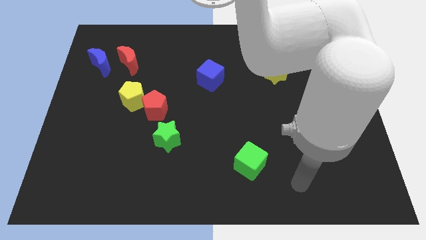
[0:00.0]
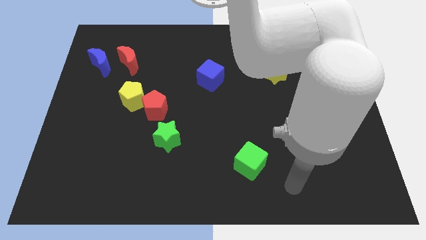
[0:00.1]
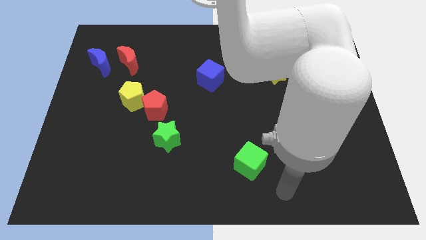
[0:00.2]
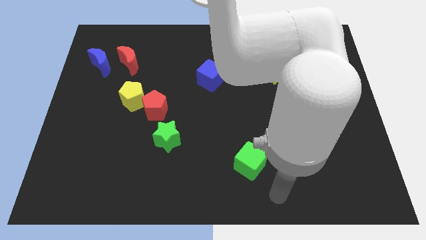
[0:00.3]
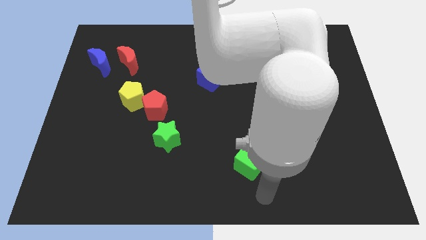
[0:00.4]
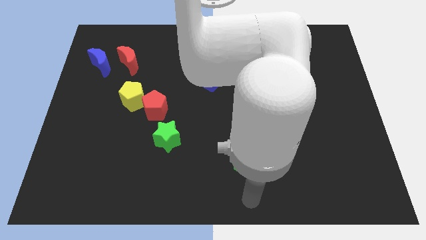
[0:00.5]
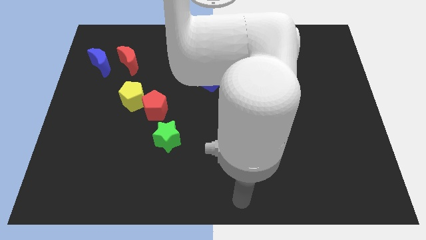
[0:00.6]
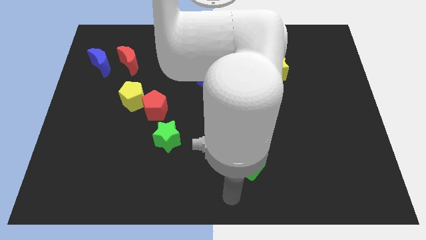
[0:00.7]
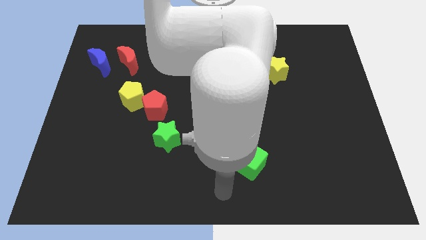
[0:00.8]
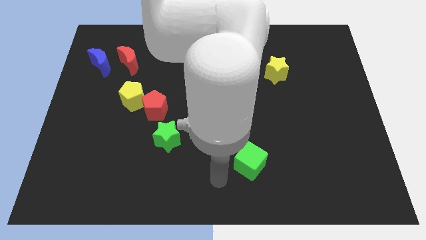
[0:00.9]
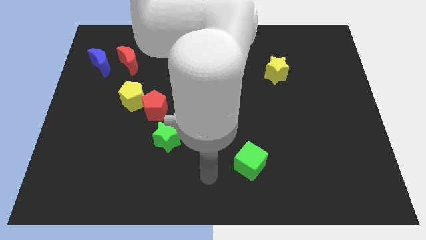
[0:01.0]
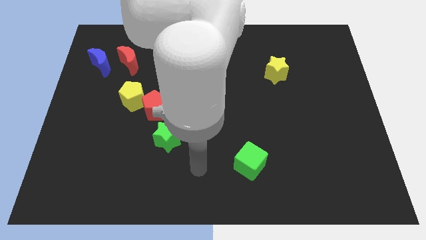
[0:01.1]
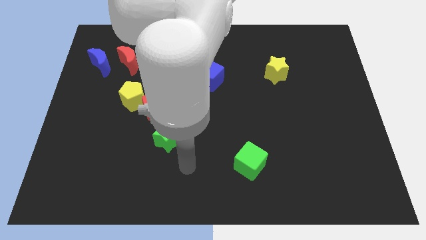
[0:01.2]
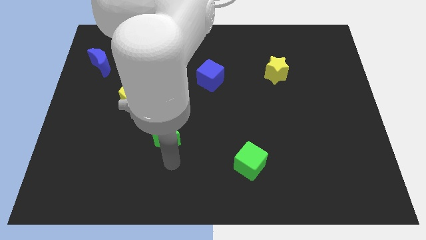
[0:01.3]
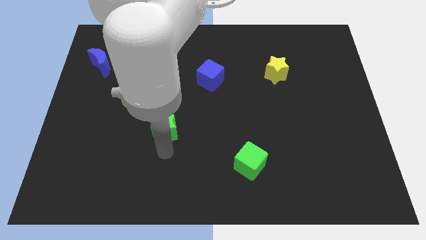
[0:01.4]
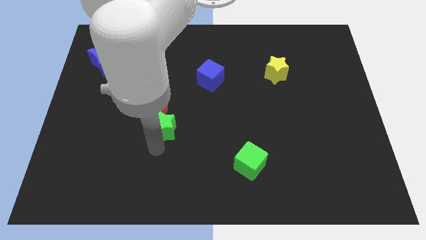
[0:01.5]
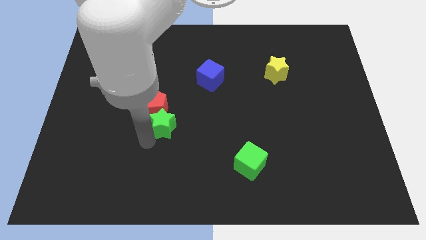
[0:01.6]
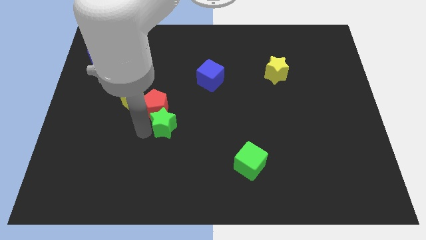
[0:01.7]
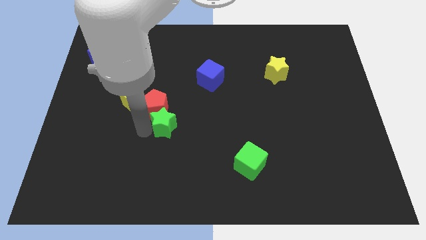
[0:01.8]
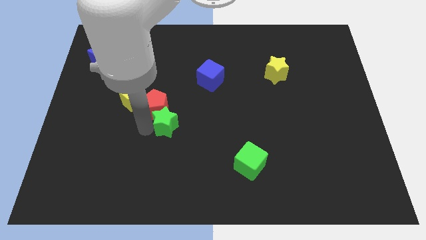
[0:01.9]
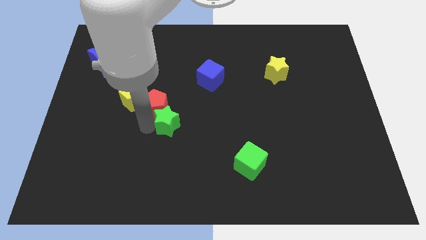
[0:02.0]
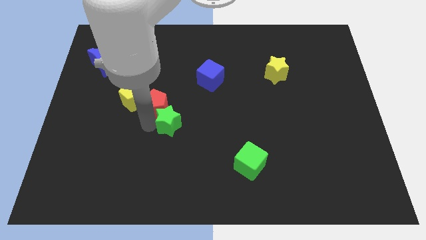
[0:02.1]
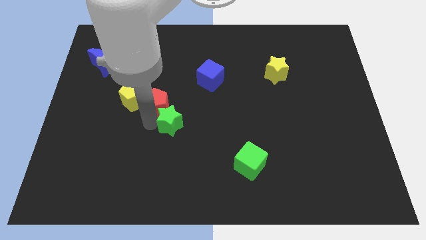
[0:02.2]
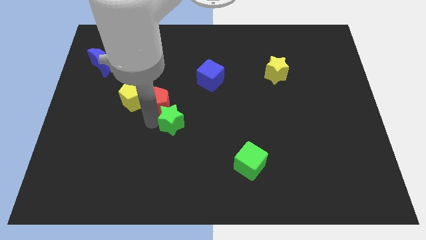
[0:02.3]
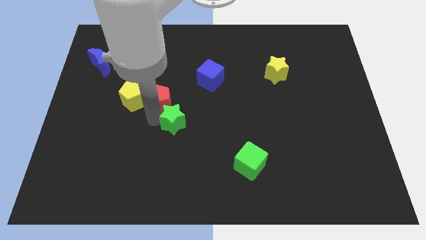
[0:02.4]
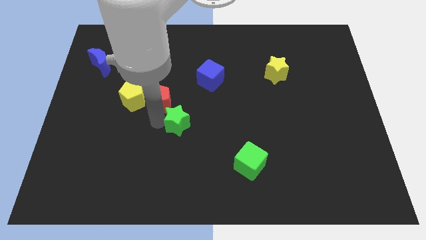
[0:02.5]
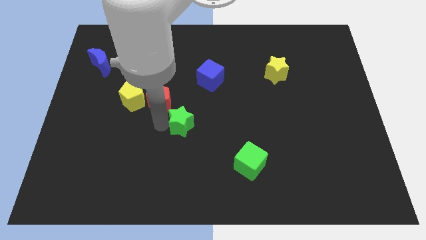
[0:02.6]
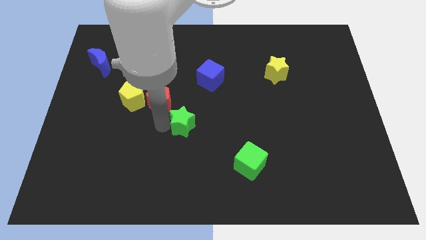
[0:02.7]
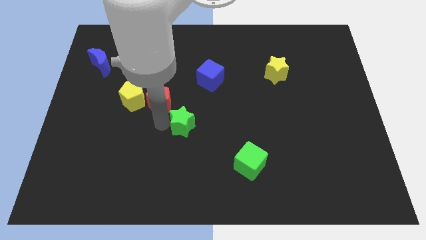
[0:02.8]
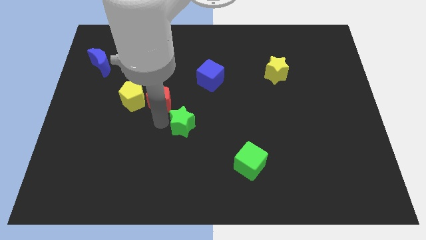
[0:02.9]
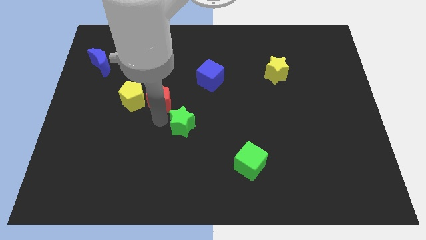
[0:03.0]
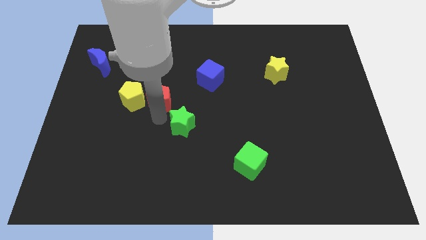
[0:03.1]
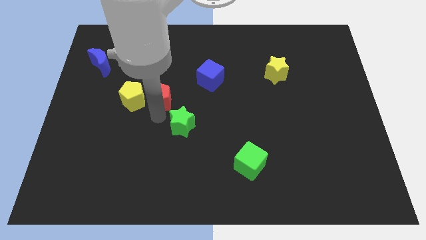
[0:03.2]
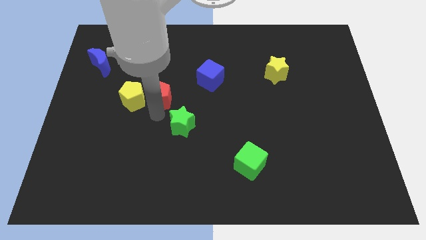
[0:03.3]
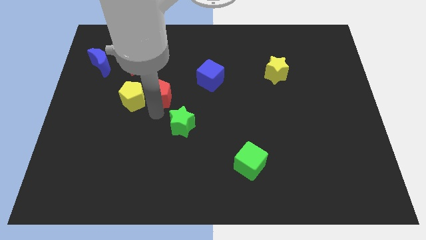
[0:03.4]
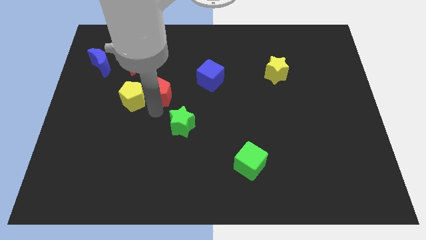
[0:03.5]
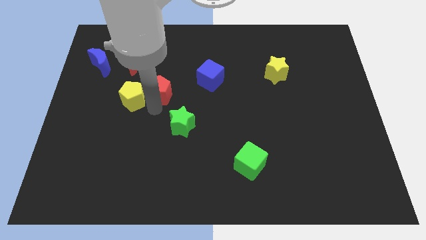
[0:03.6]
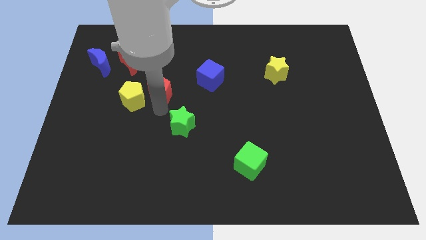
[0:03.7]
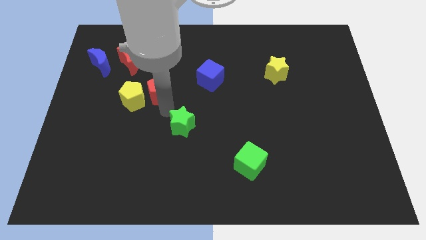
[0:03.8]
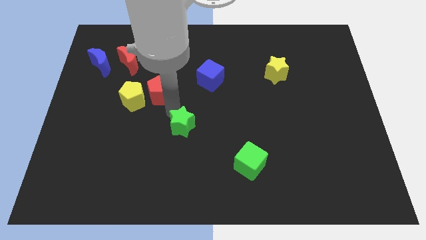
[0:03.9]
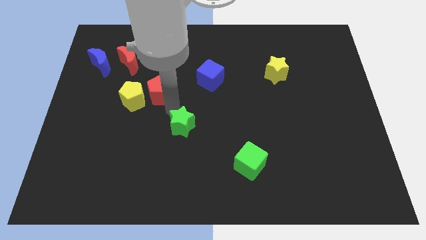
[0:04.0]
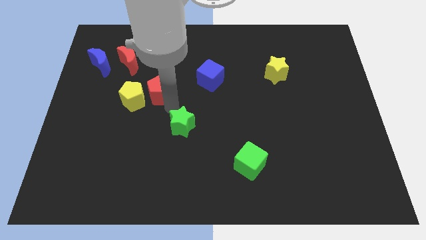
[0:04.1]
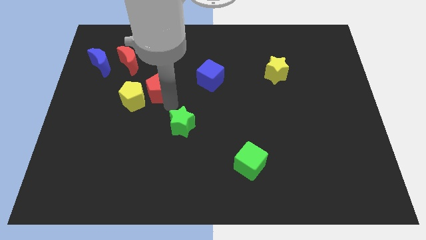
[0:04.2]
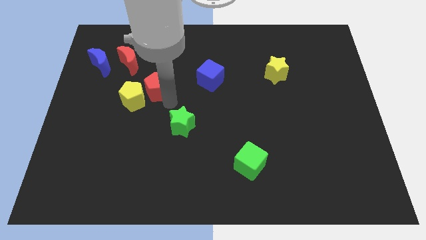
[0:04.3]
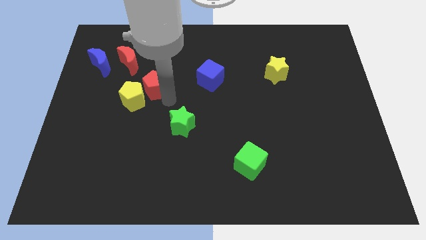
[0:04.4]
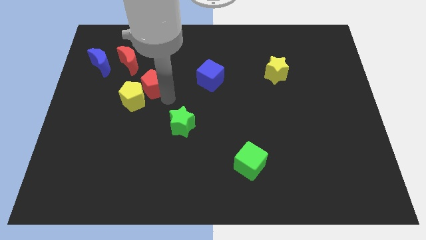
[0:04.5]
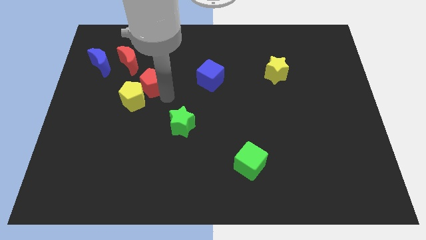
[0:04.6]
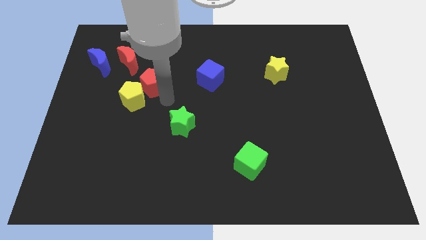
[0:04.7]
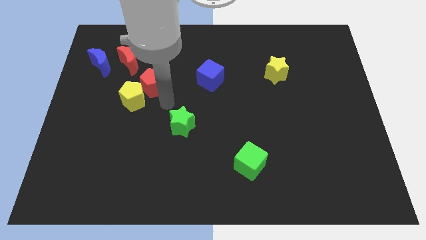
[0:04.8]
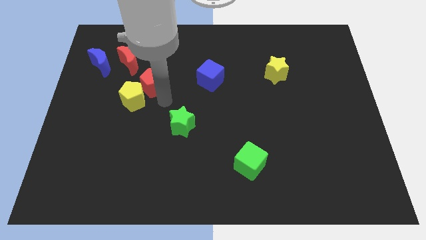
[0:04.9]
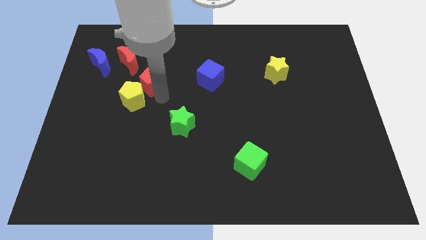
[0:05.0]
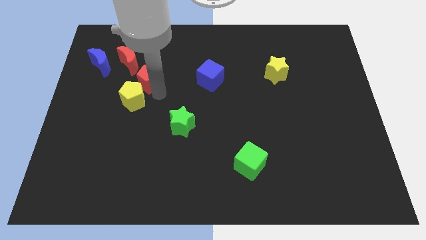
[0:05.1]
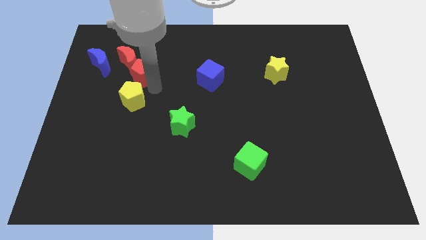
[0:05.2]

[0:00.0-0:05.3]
move the red pentagon close to the red moon

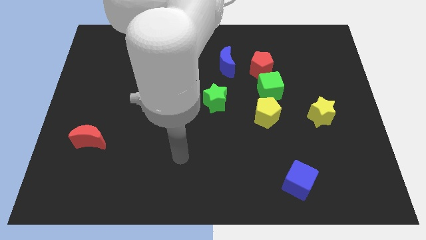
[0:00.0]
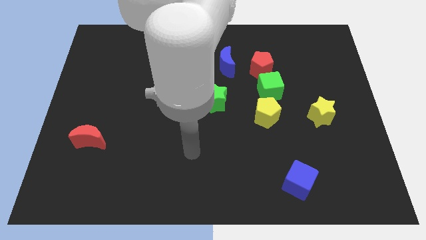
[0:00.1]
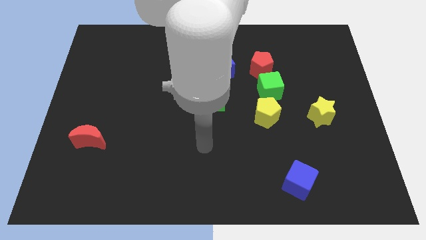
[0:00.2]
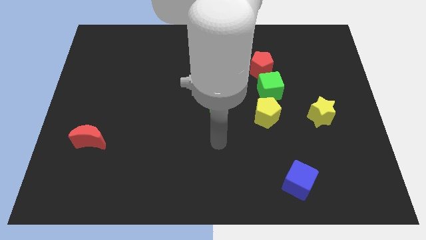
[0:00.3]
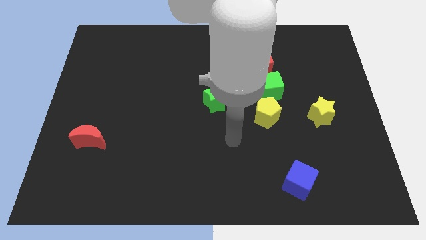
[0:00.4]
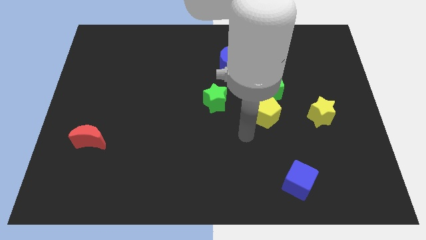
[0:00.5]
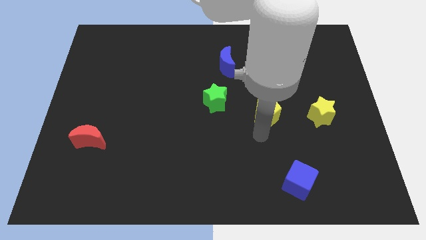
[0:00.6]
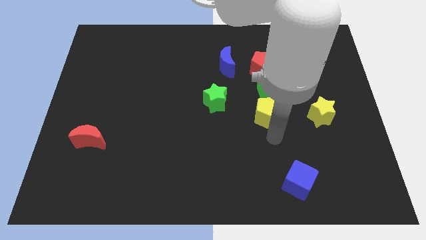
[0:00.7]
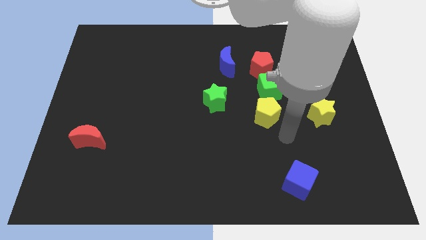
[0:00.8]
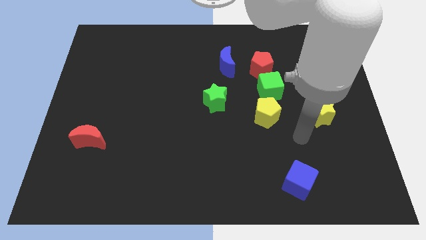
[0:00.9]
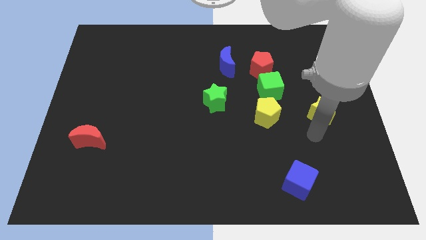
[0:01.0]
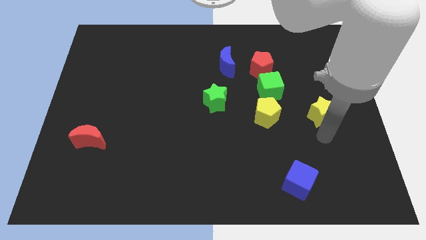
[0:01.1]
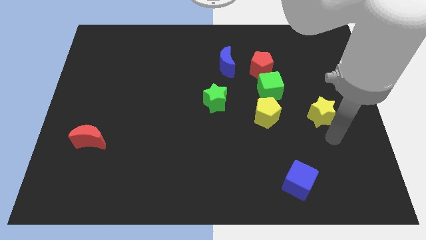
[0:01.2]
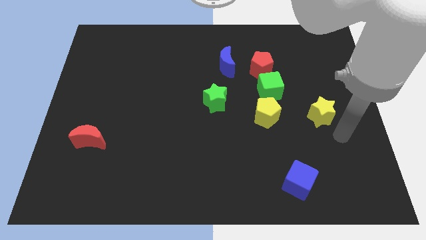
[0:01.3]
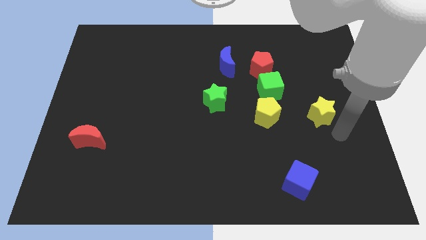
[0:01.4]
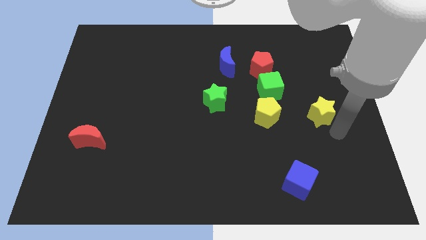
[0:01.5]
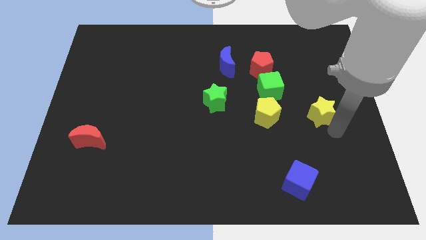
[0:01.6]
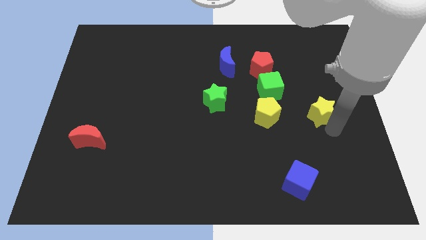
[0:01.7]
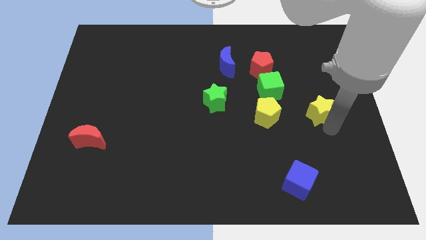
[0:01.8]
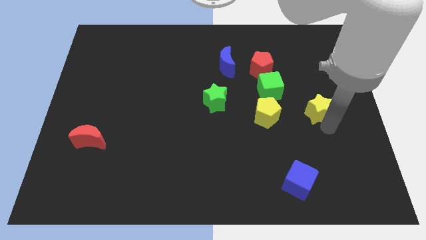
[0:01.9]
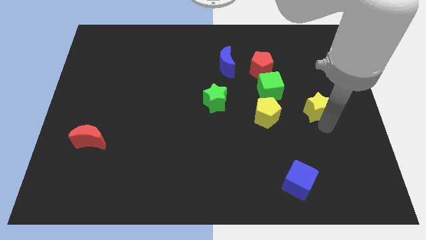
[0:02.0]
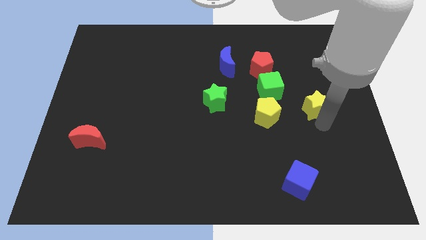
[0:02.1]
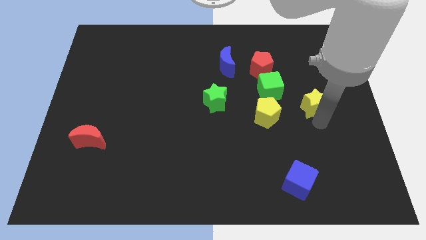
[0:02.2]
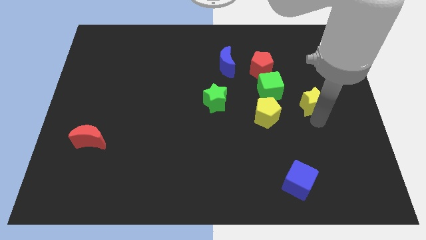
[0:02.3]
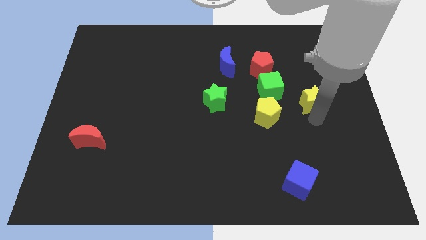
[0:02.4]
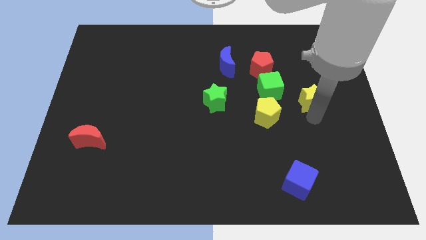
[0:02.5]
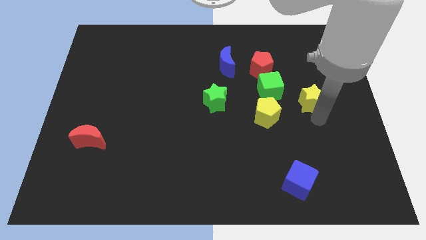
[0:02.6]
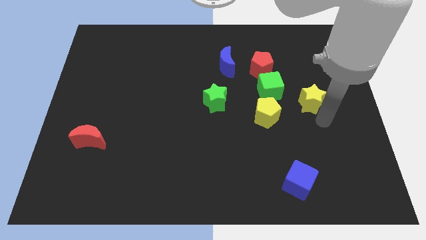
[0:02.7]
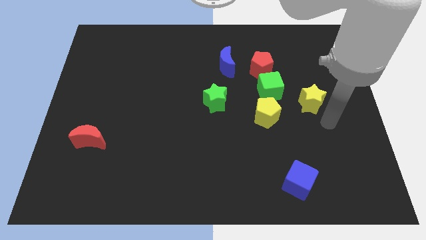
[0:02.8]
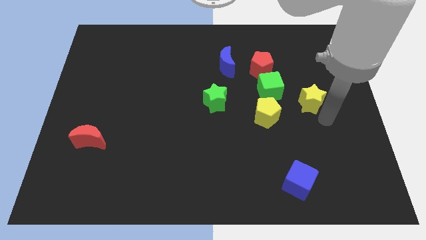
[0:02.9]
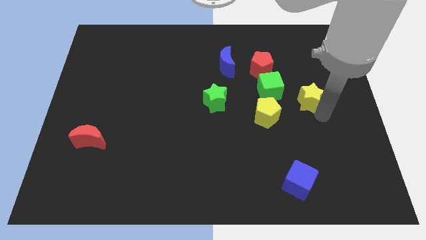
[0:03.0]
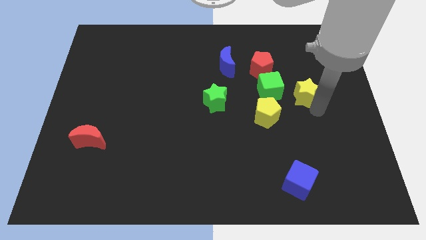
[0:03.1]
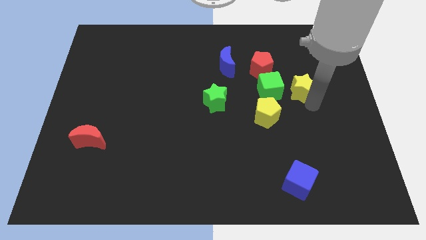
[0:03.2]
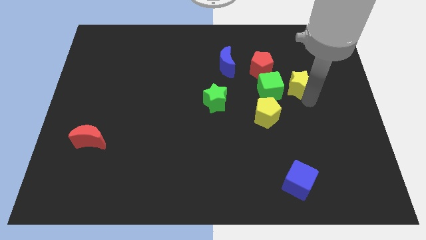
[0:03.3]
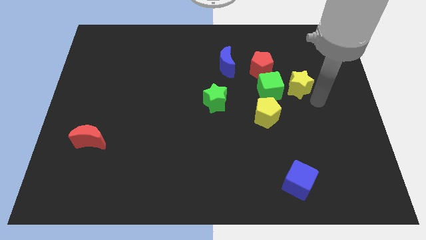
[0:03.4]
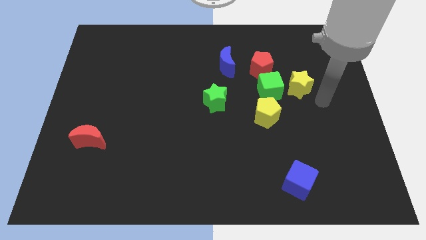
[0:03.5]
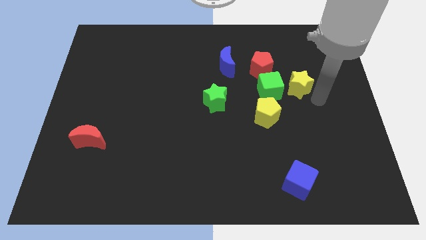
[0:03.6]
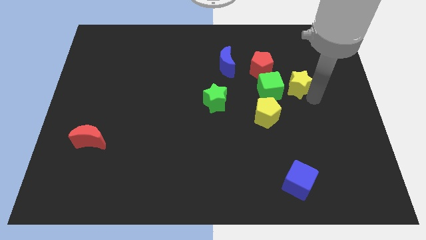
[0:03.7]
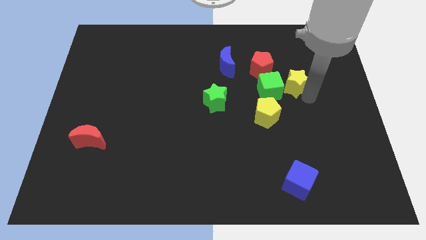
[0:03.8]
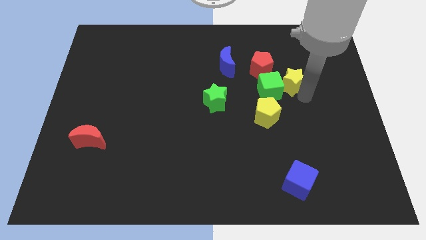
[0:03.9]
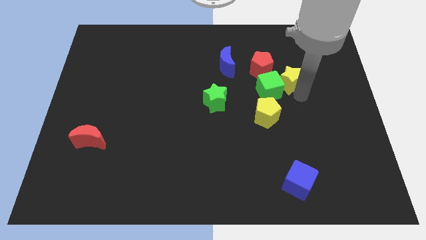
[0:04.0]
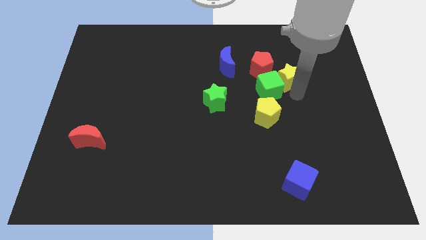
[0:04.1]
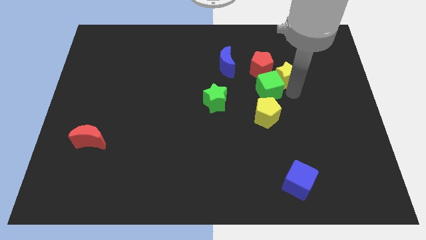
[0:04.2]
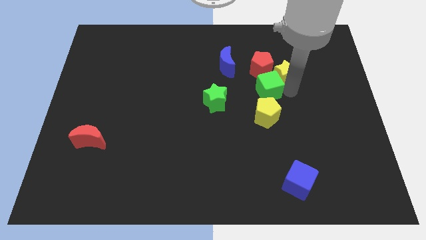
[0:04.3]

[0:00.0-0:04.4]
slide the yellow star towards the red pentagon
